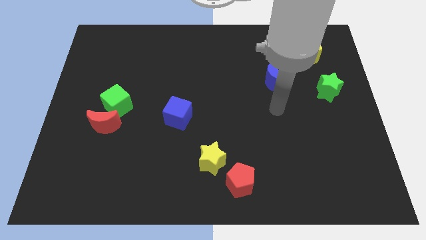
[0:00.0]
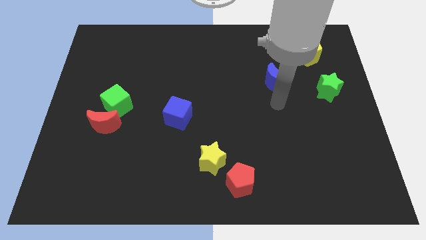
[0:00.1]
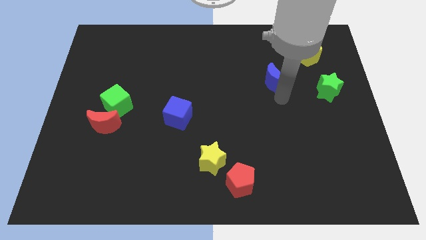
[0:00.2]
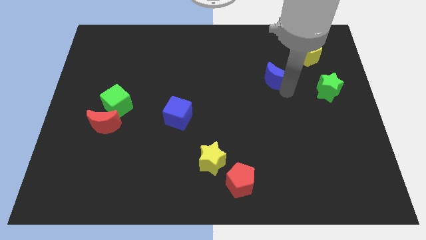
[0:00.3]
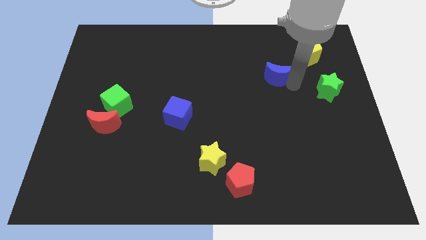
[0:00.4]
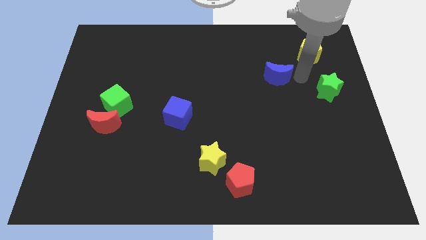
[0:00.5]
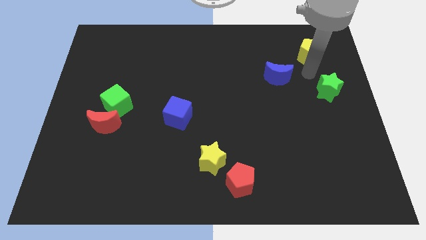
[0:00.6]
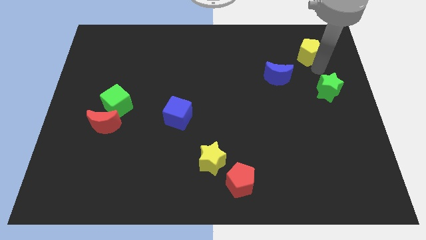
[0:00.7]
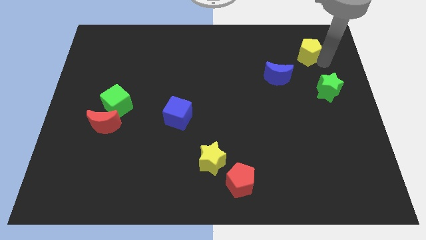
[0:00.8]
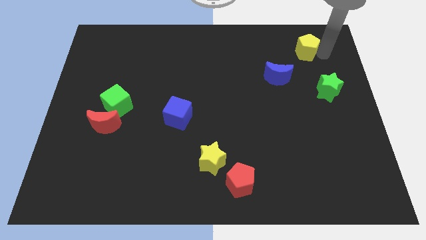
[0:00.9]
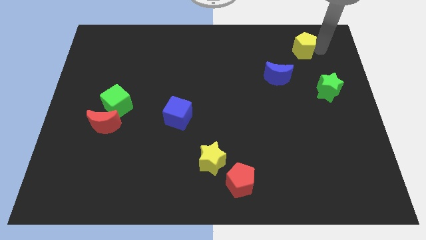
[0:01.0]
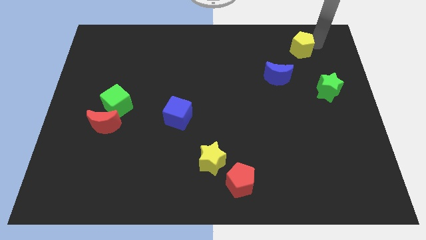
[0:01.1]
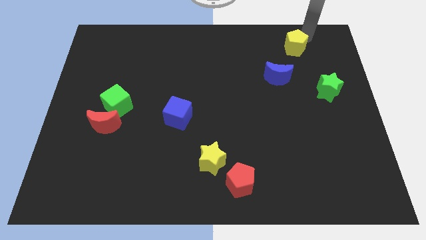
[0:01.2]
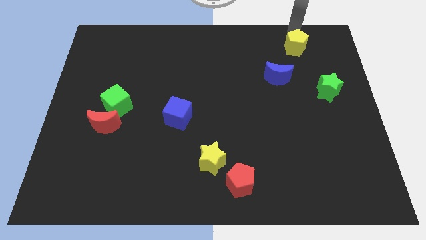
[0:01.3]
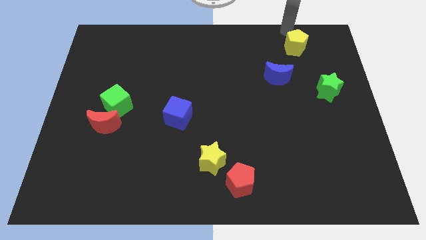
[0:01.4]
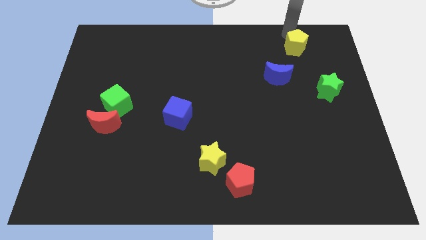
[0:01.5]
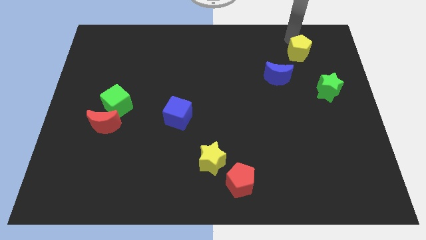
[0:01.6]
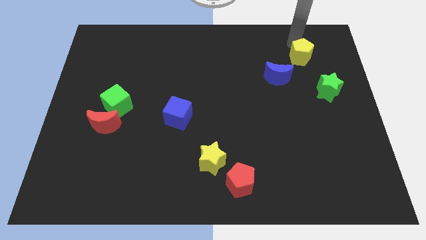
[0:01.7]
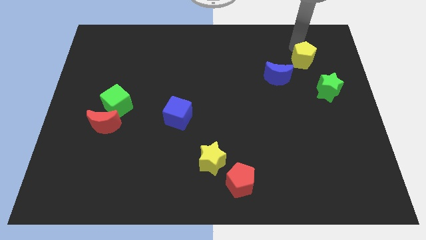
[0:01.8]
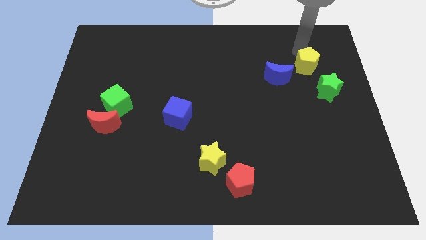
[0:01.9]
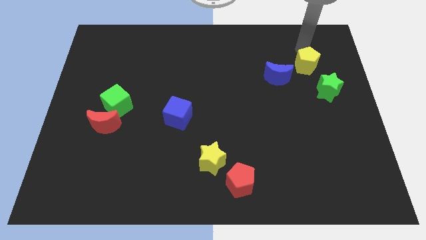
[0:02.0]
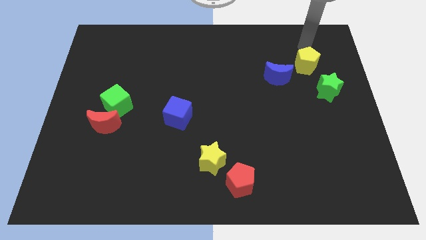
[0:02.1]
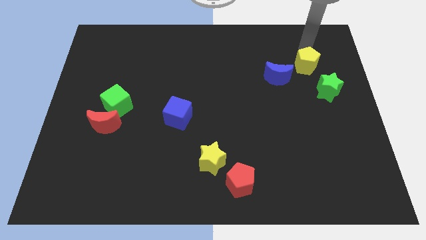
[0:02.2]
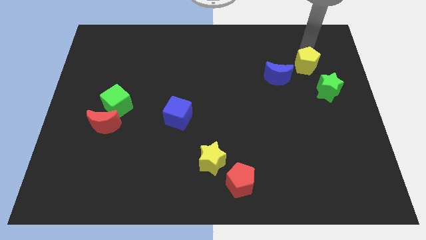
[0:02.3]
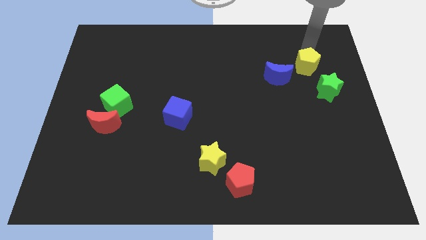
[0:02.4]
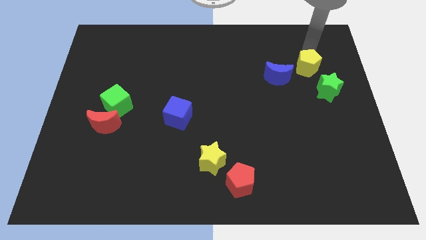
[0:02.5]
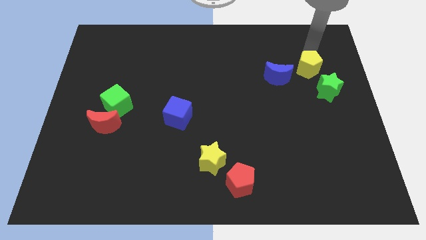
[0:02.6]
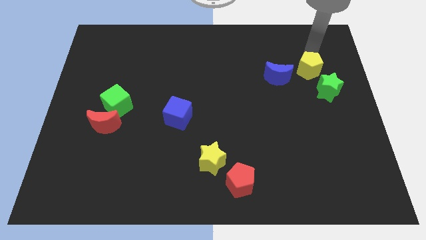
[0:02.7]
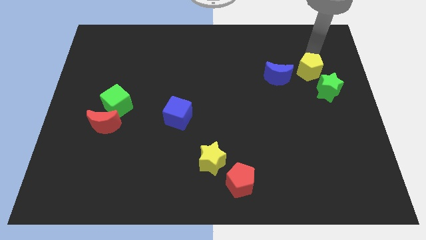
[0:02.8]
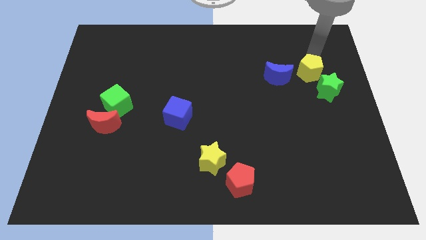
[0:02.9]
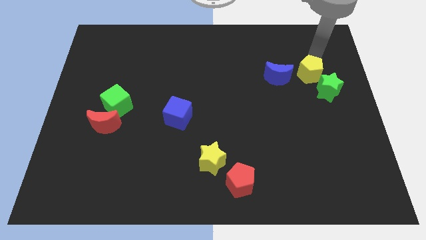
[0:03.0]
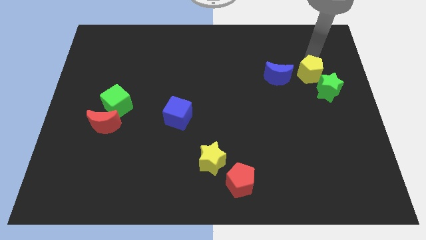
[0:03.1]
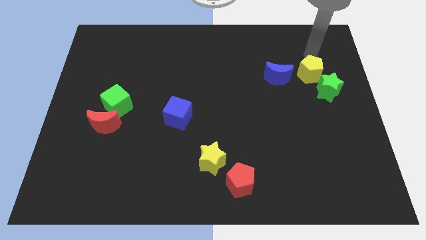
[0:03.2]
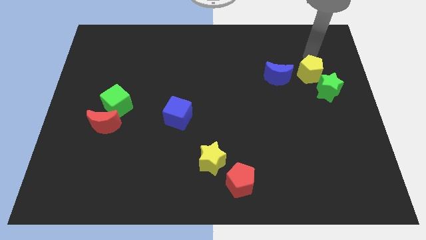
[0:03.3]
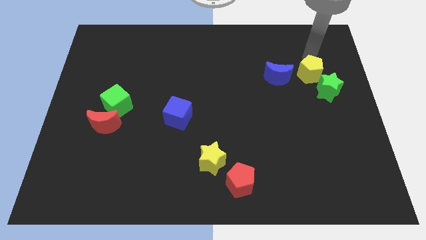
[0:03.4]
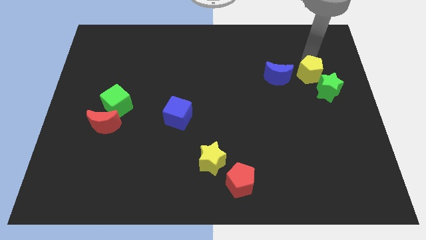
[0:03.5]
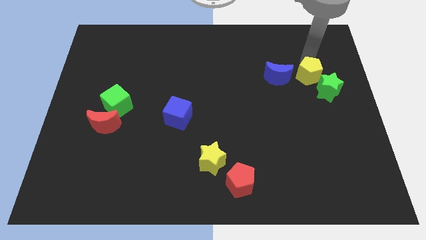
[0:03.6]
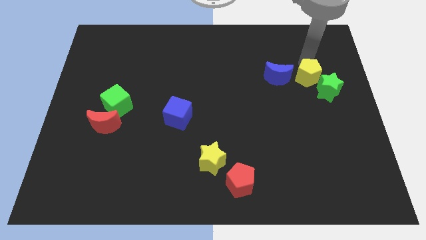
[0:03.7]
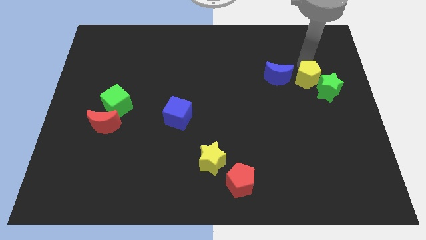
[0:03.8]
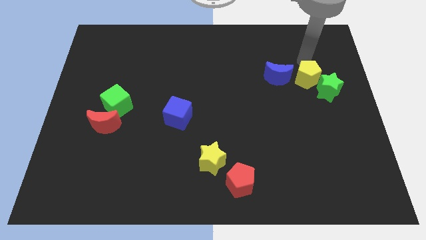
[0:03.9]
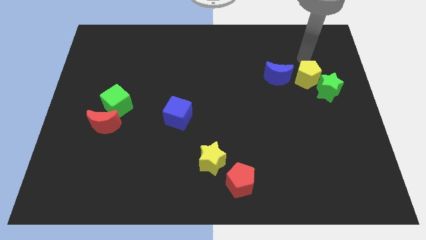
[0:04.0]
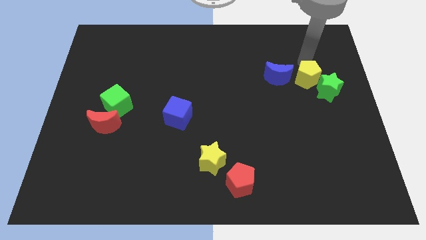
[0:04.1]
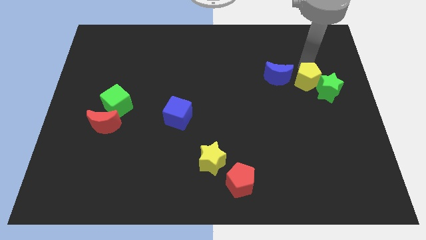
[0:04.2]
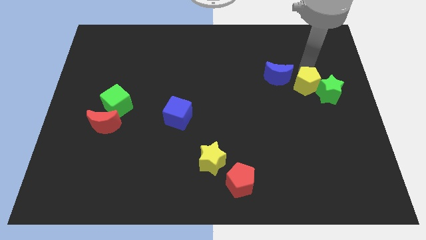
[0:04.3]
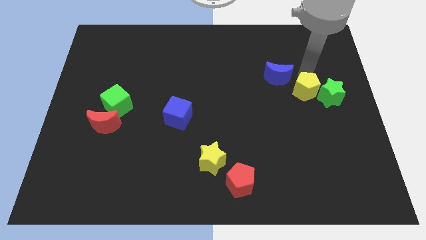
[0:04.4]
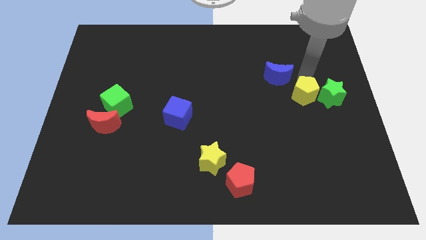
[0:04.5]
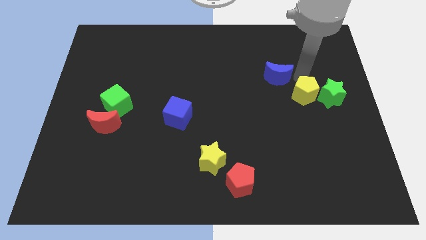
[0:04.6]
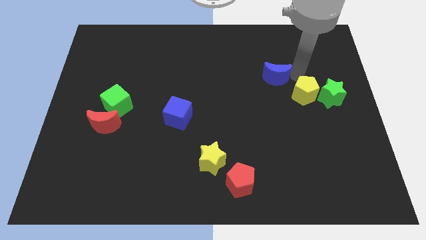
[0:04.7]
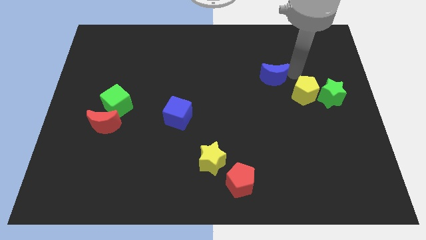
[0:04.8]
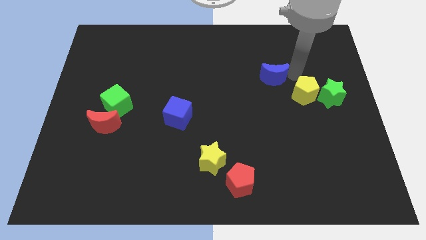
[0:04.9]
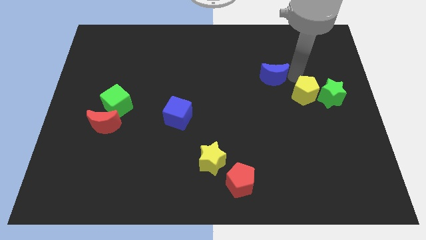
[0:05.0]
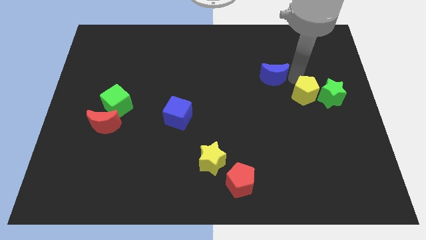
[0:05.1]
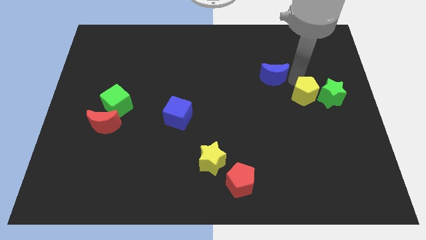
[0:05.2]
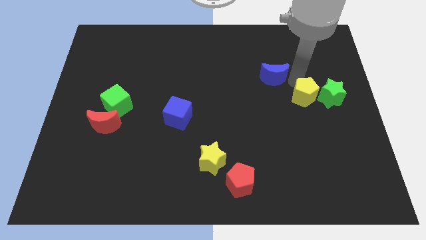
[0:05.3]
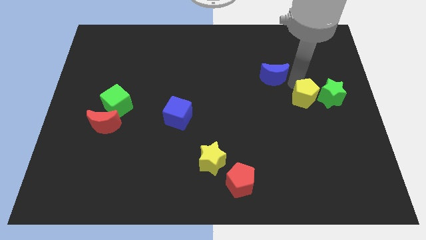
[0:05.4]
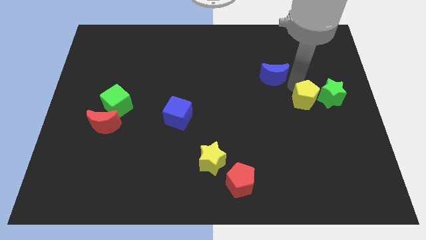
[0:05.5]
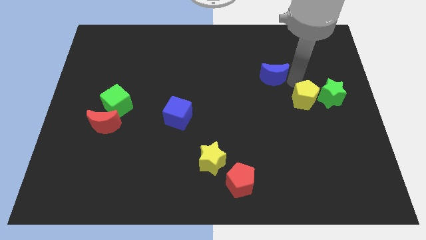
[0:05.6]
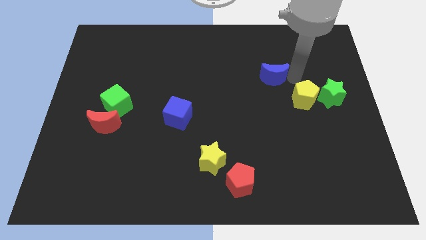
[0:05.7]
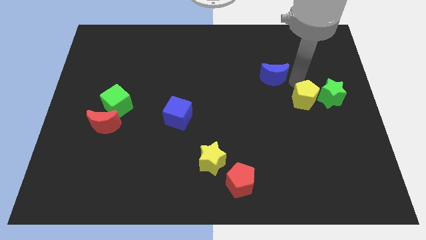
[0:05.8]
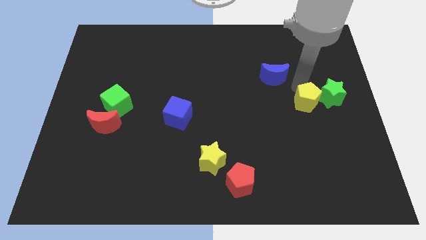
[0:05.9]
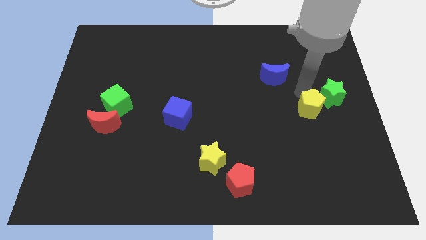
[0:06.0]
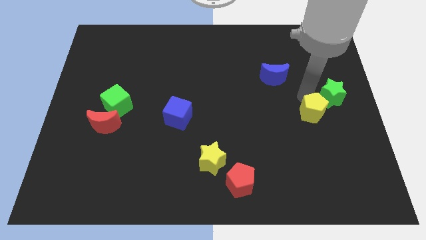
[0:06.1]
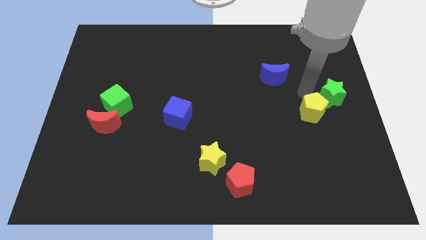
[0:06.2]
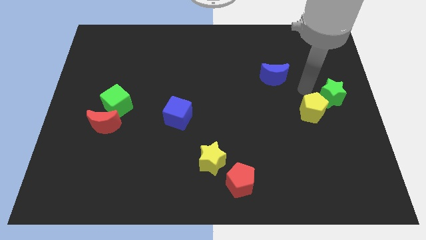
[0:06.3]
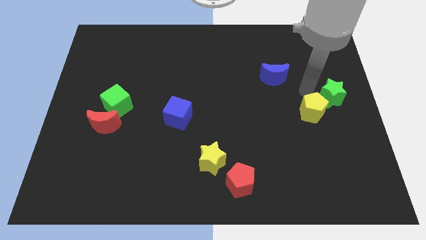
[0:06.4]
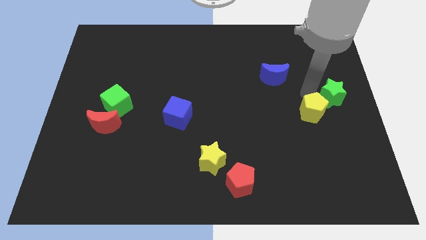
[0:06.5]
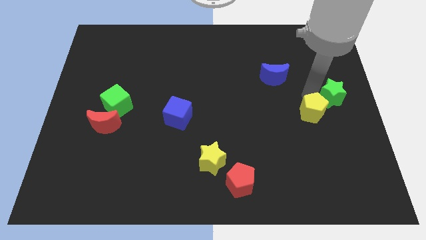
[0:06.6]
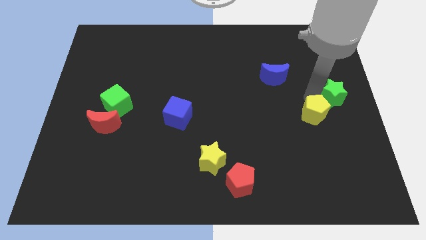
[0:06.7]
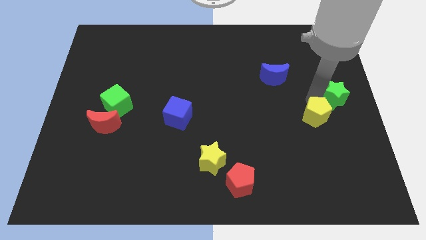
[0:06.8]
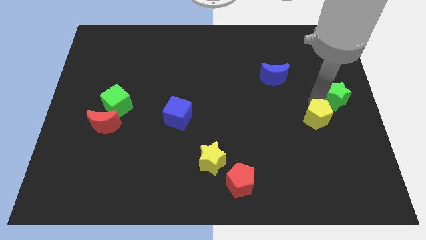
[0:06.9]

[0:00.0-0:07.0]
slide the yellow pentagon down

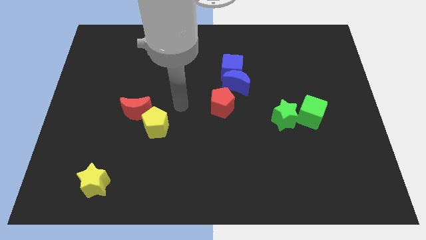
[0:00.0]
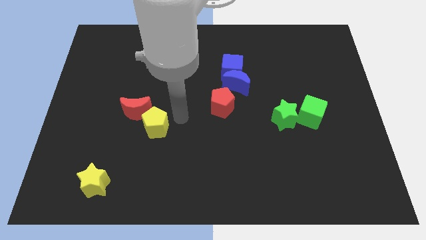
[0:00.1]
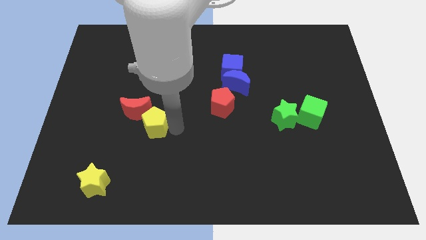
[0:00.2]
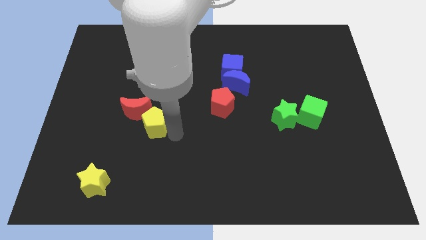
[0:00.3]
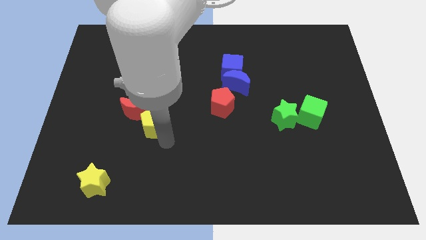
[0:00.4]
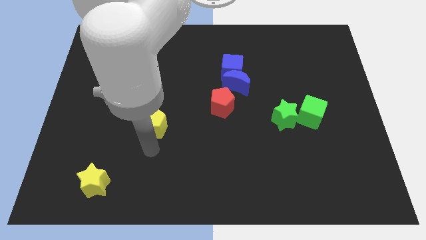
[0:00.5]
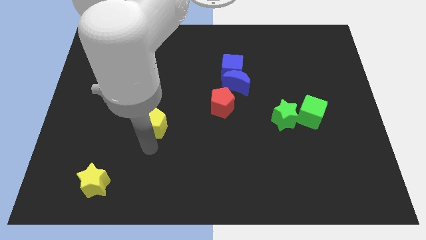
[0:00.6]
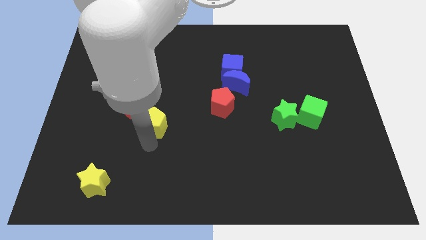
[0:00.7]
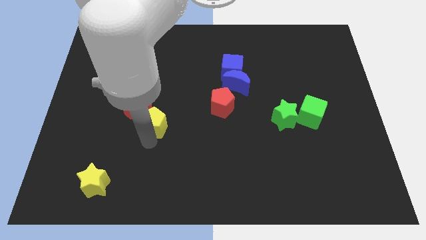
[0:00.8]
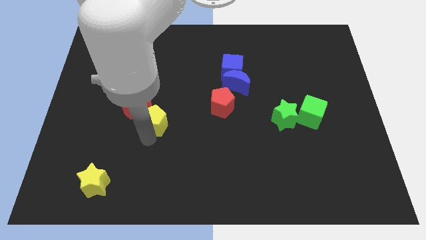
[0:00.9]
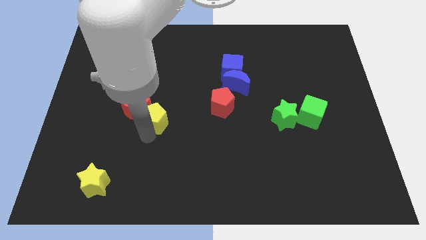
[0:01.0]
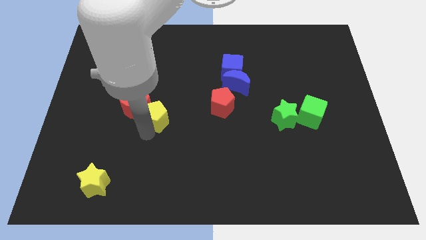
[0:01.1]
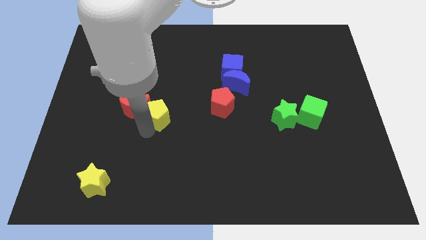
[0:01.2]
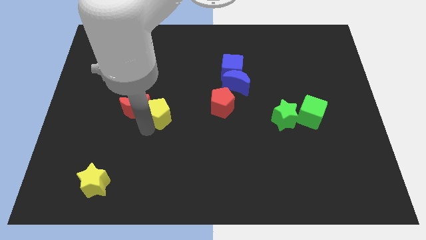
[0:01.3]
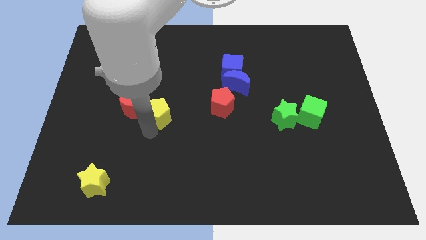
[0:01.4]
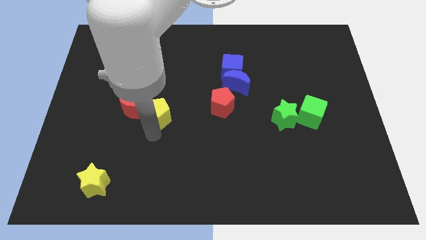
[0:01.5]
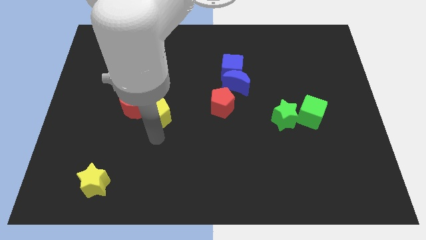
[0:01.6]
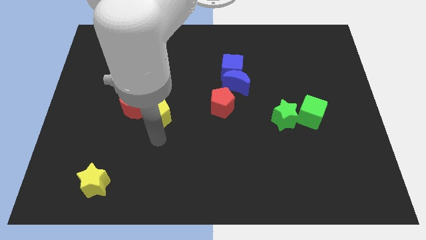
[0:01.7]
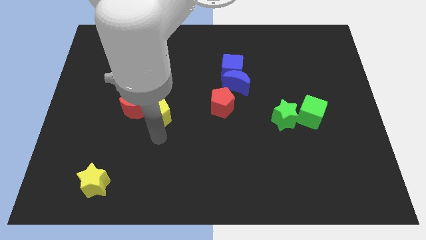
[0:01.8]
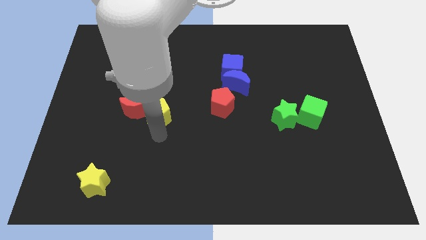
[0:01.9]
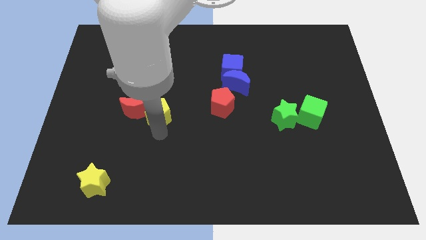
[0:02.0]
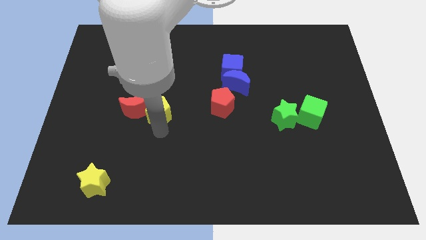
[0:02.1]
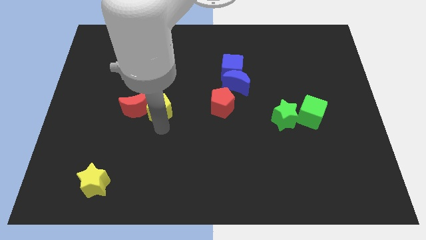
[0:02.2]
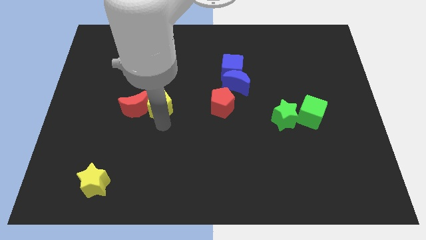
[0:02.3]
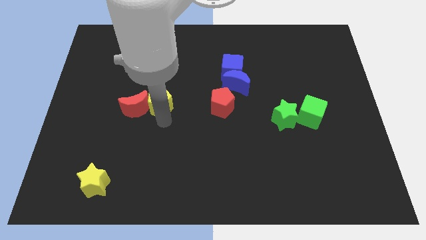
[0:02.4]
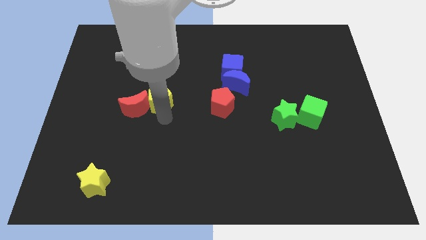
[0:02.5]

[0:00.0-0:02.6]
slide the yellow pentagon up a bit
